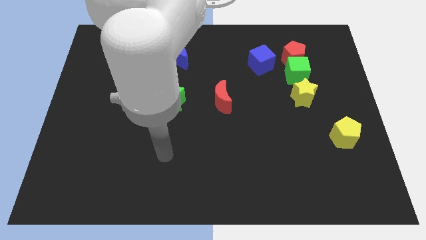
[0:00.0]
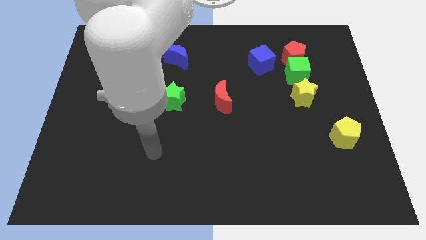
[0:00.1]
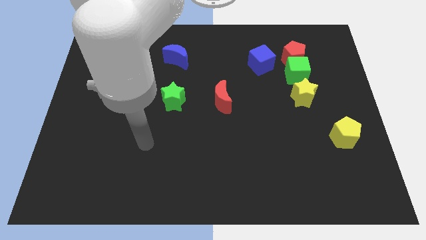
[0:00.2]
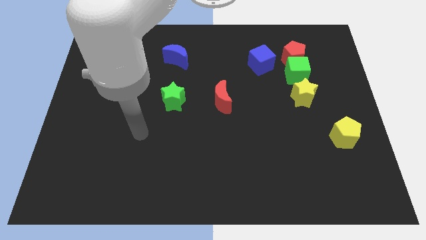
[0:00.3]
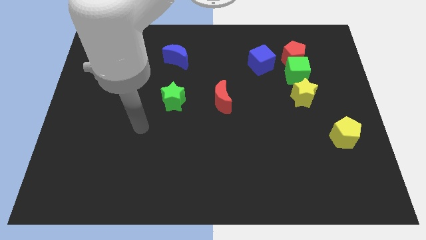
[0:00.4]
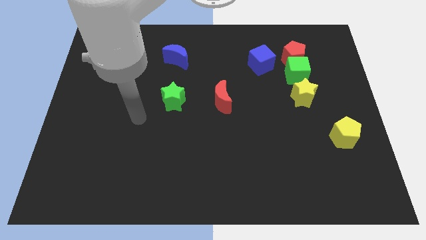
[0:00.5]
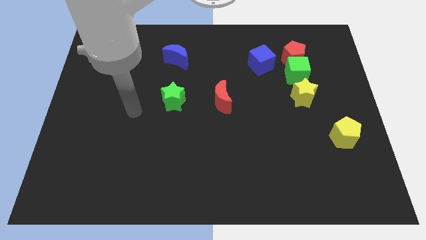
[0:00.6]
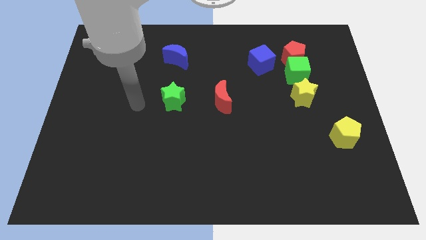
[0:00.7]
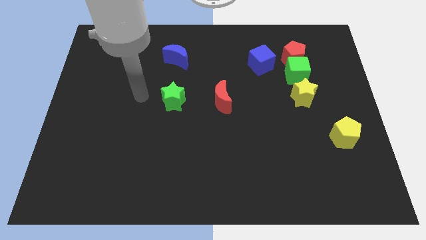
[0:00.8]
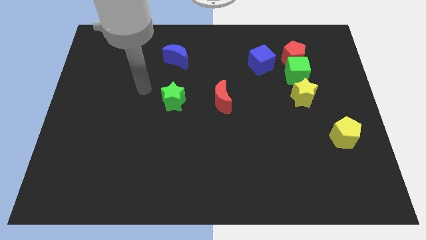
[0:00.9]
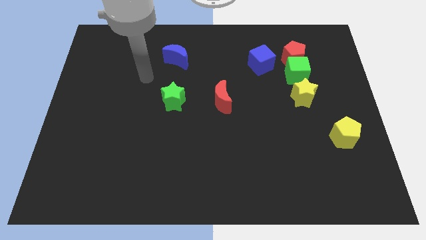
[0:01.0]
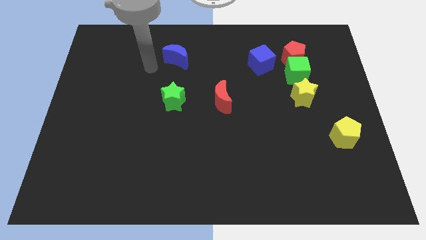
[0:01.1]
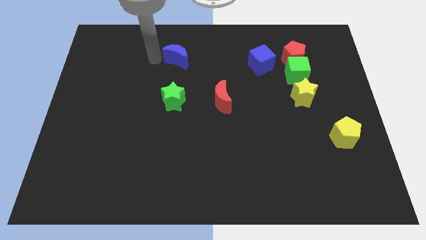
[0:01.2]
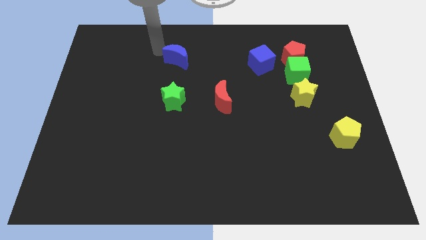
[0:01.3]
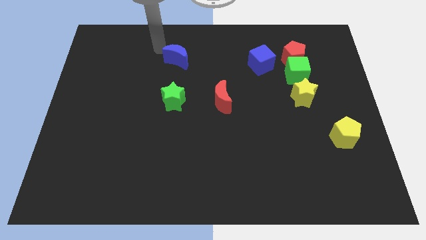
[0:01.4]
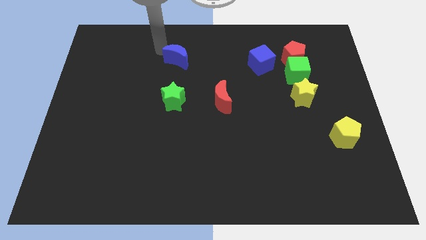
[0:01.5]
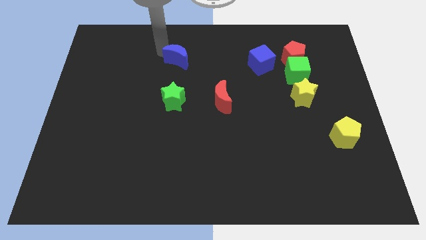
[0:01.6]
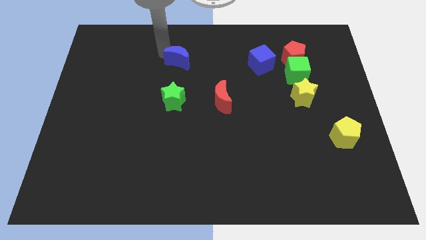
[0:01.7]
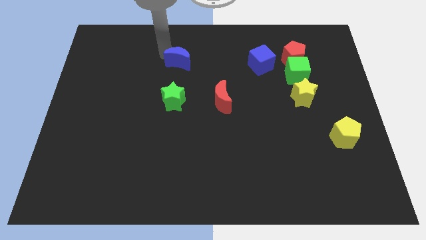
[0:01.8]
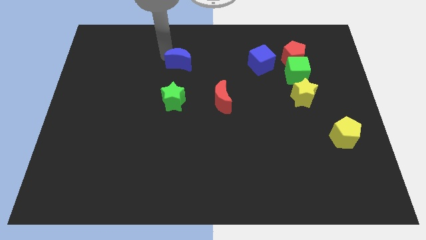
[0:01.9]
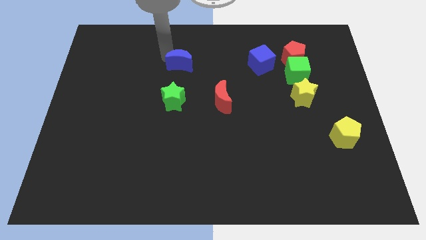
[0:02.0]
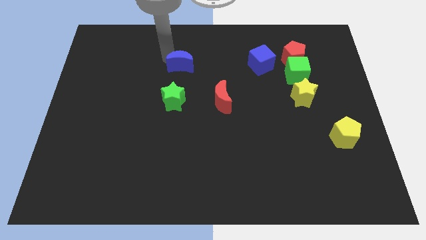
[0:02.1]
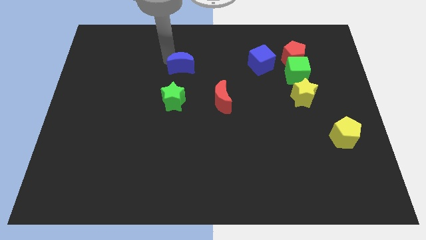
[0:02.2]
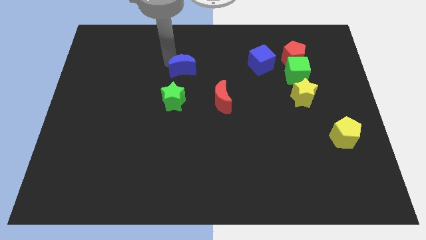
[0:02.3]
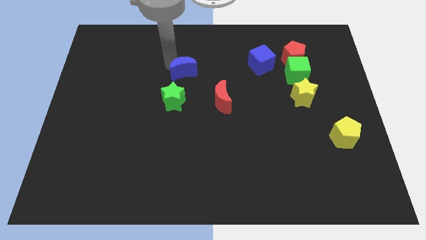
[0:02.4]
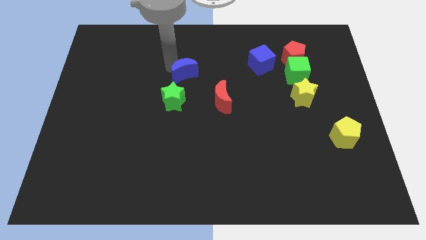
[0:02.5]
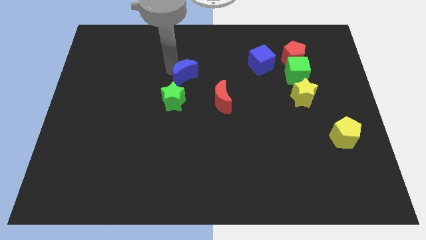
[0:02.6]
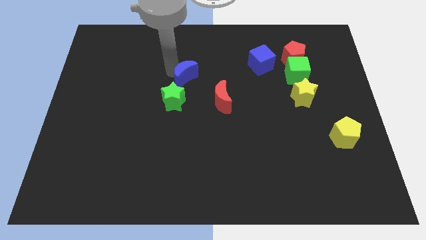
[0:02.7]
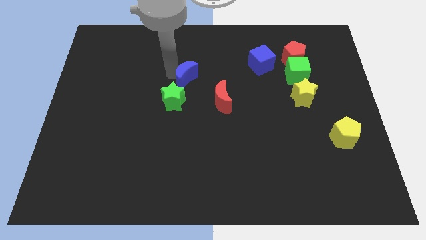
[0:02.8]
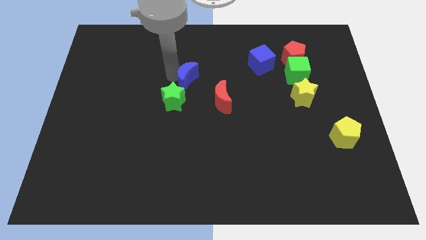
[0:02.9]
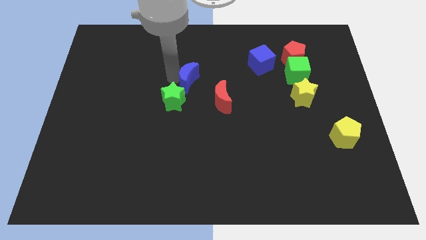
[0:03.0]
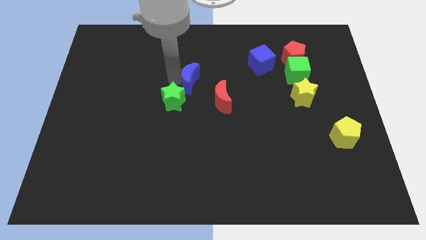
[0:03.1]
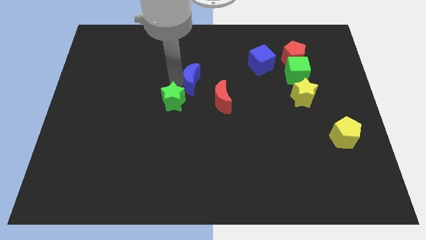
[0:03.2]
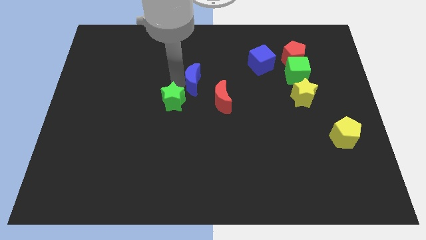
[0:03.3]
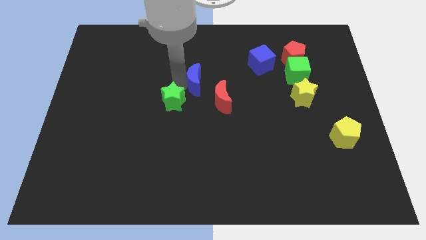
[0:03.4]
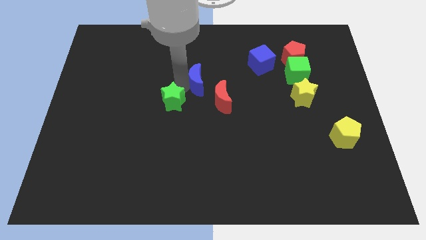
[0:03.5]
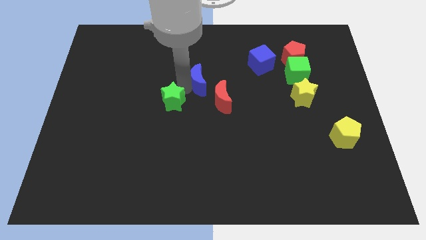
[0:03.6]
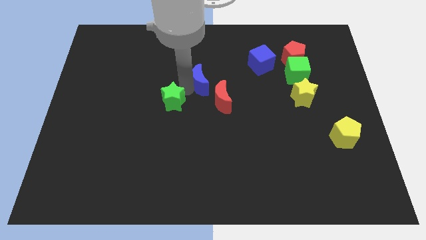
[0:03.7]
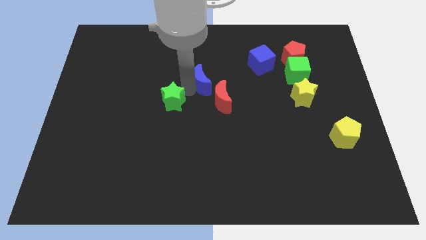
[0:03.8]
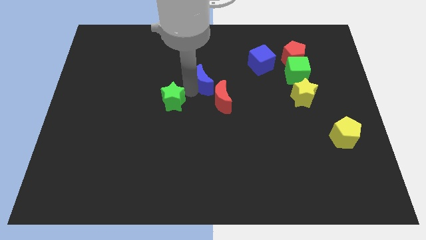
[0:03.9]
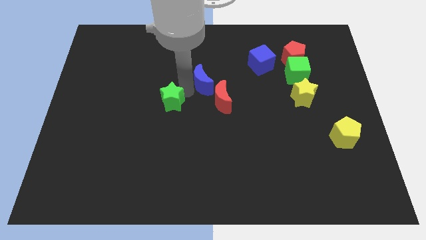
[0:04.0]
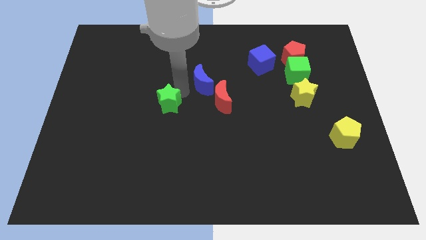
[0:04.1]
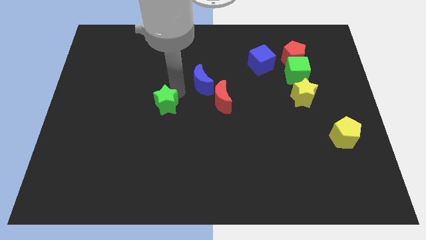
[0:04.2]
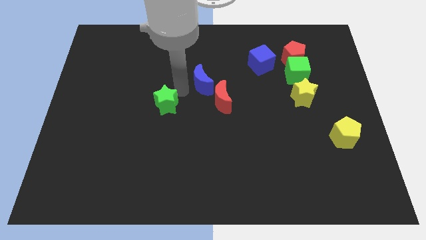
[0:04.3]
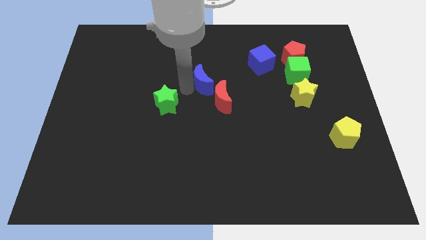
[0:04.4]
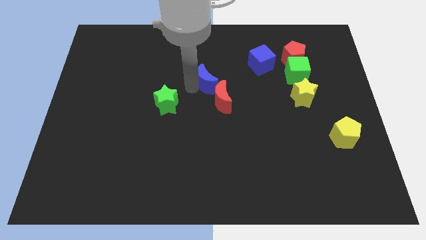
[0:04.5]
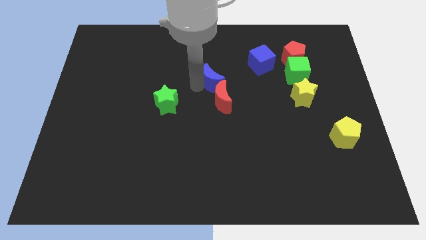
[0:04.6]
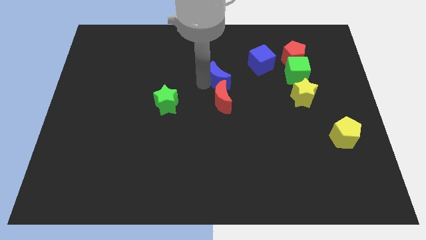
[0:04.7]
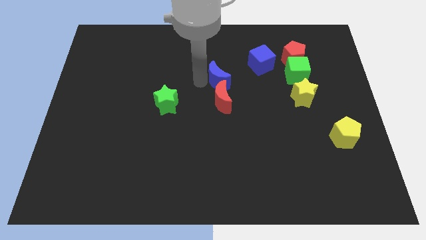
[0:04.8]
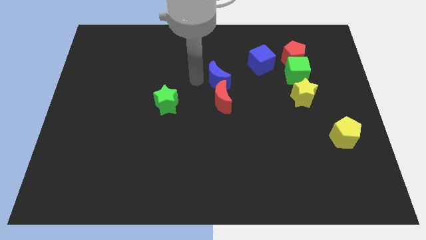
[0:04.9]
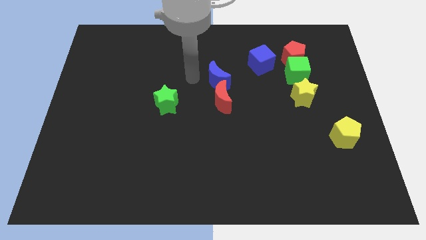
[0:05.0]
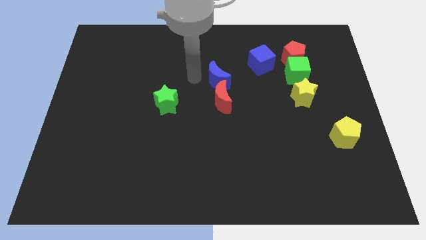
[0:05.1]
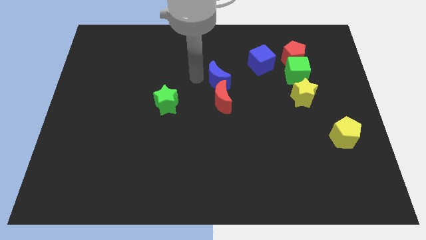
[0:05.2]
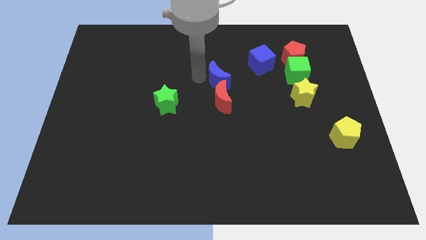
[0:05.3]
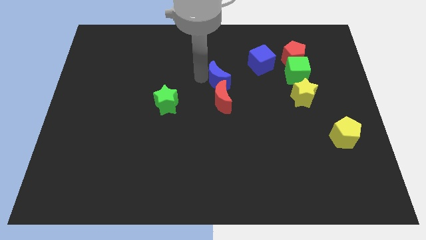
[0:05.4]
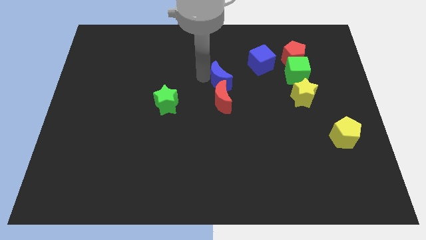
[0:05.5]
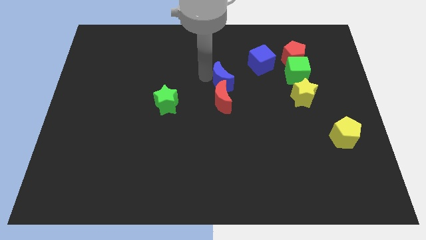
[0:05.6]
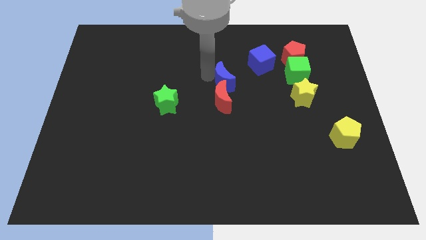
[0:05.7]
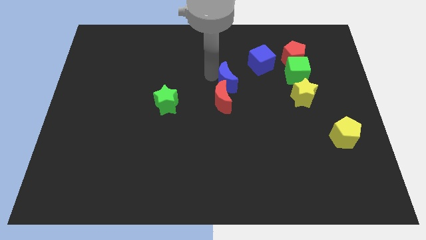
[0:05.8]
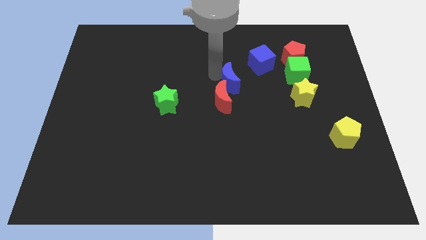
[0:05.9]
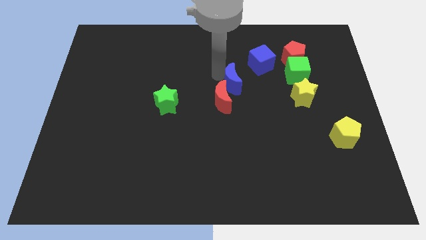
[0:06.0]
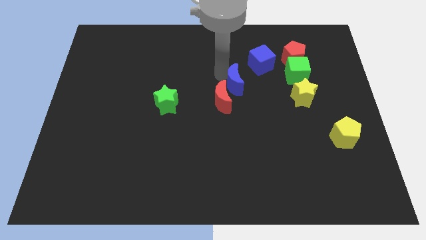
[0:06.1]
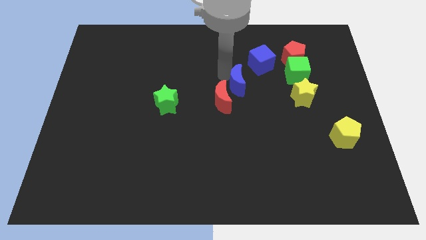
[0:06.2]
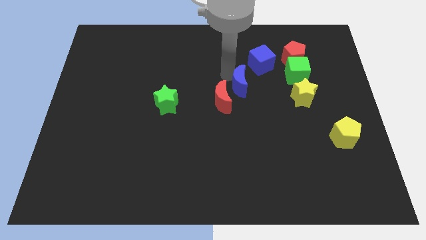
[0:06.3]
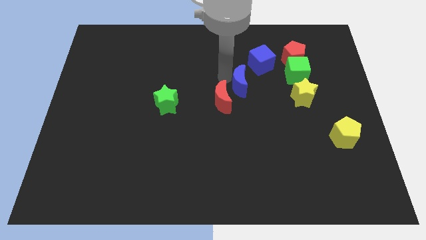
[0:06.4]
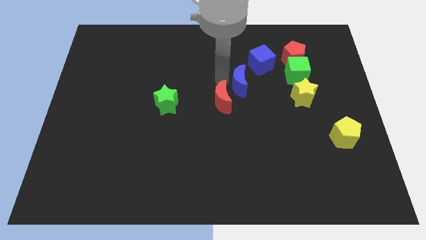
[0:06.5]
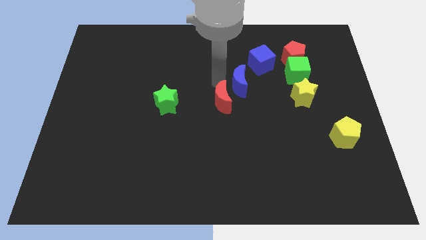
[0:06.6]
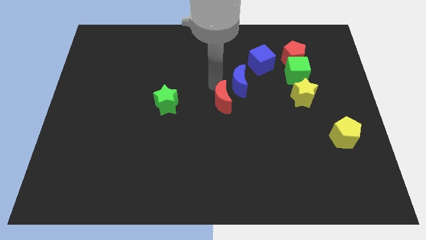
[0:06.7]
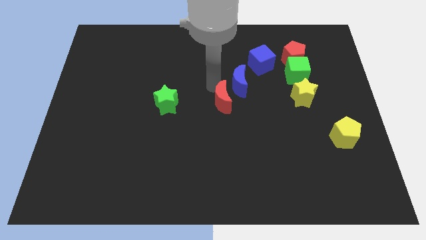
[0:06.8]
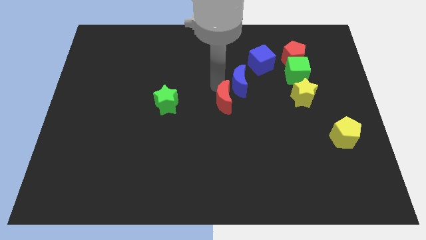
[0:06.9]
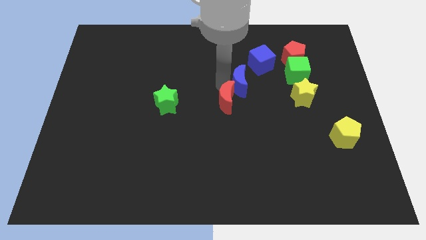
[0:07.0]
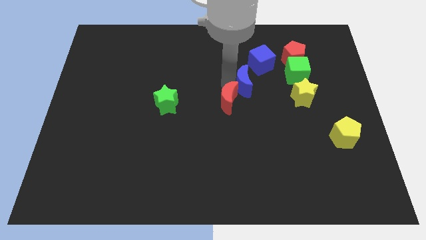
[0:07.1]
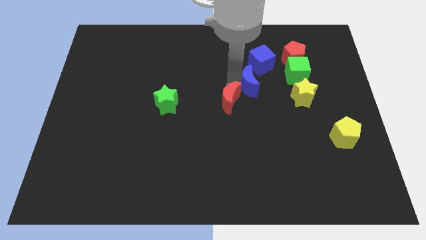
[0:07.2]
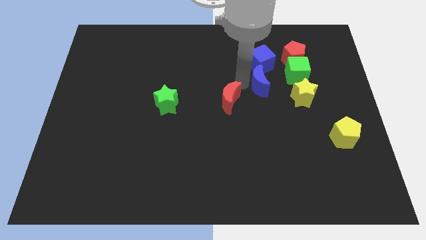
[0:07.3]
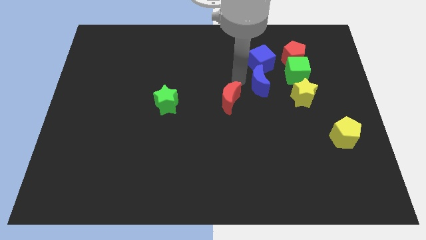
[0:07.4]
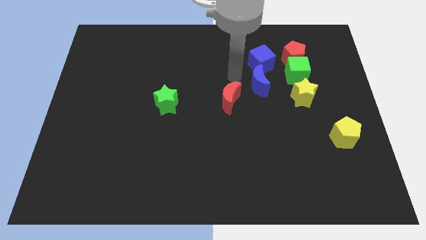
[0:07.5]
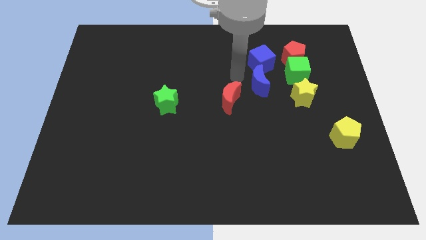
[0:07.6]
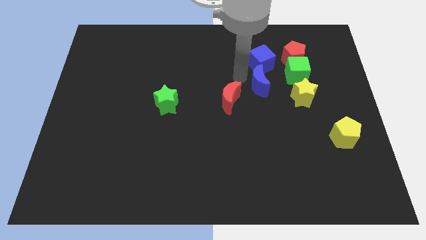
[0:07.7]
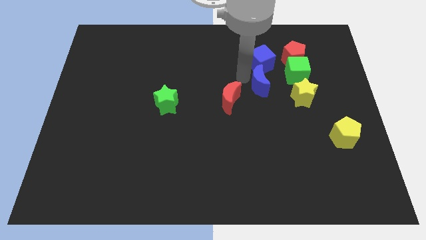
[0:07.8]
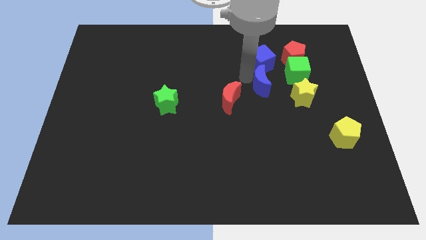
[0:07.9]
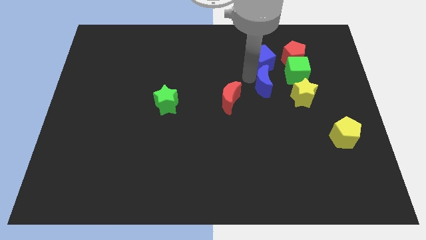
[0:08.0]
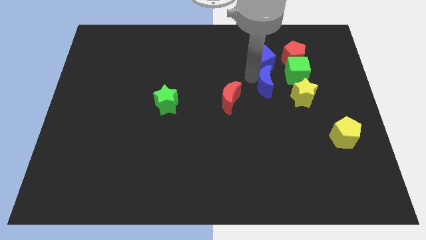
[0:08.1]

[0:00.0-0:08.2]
put the blue moon to the bottom right side of the blue cube
